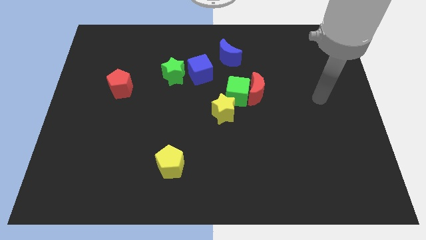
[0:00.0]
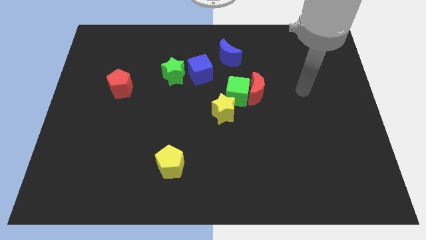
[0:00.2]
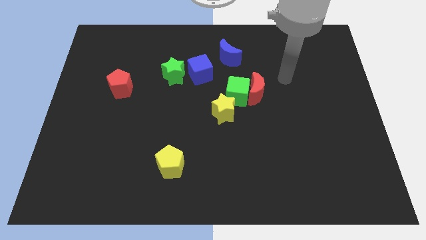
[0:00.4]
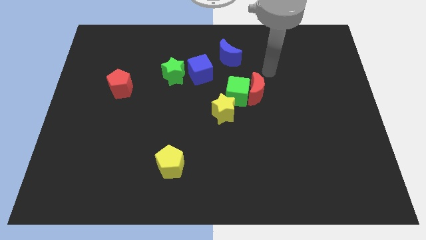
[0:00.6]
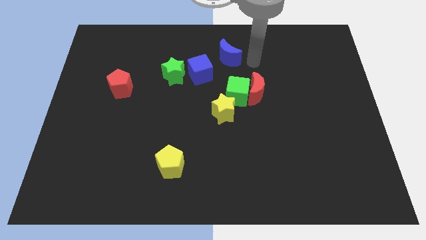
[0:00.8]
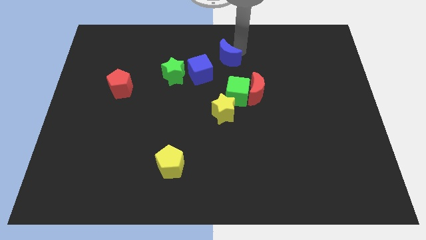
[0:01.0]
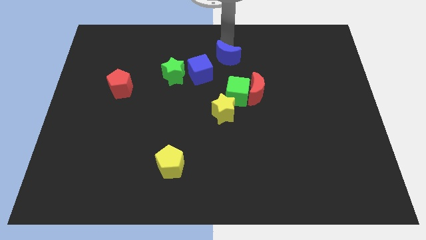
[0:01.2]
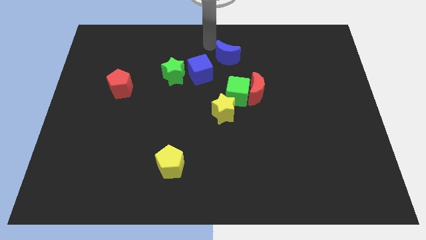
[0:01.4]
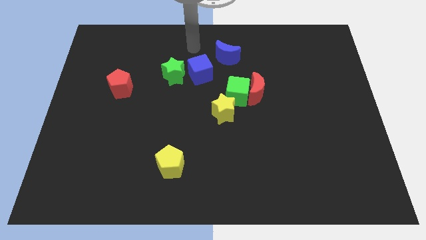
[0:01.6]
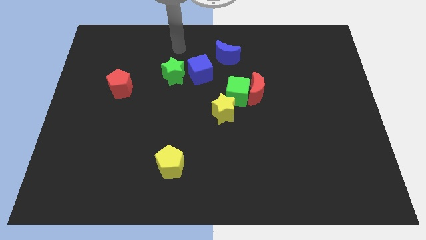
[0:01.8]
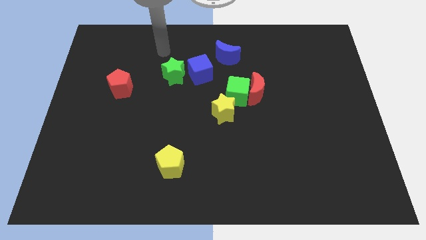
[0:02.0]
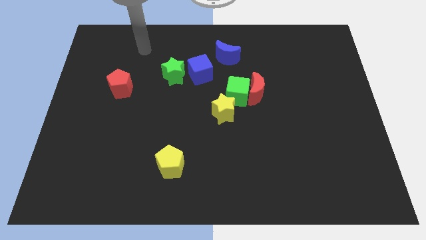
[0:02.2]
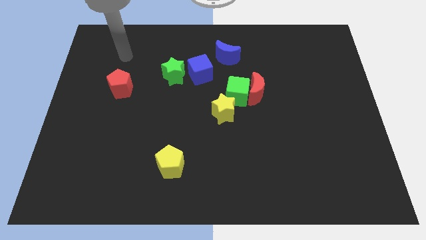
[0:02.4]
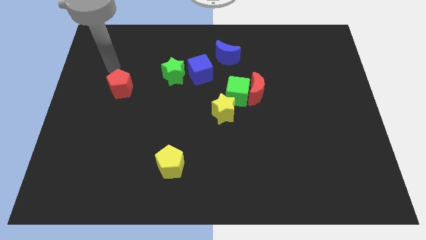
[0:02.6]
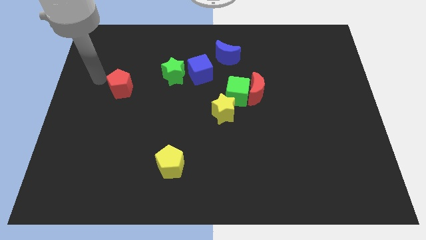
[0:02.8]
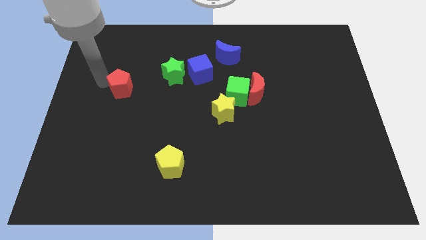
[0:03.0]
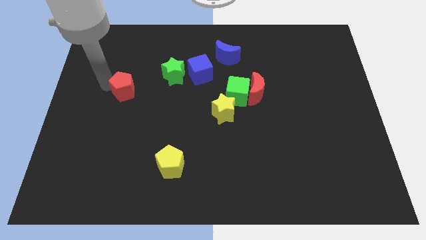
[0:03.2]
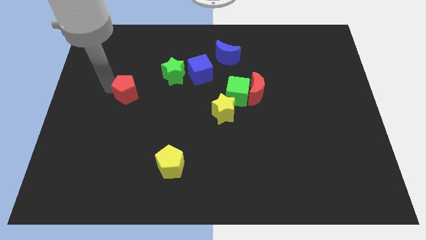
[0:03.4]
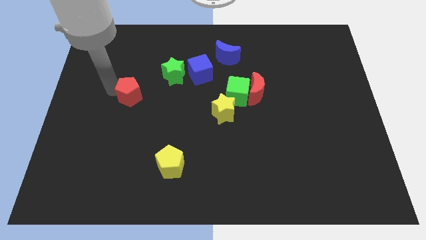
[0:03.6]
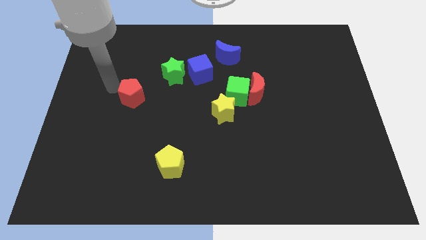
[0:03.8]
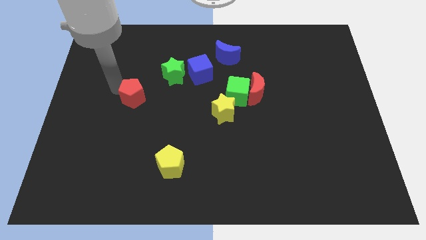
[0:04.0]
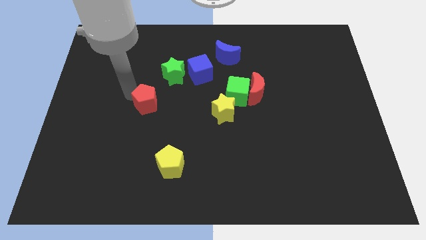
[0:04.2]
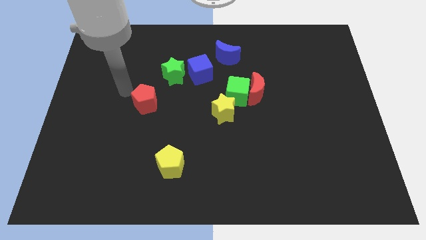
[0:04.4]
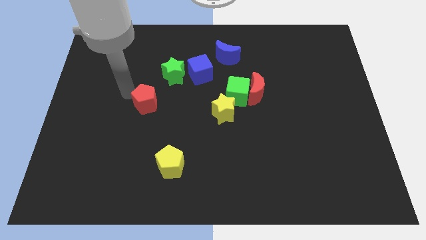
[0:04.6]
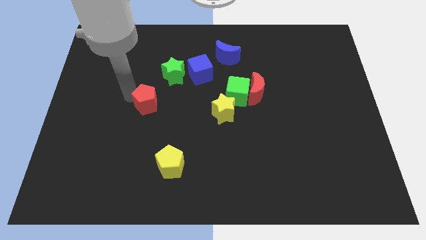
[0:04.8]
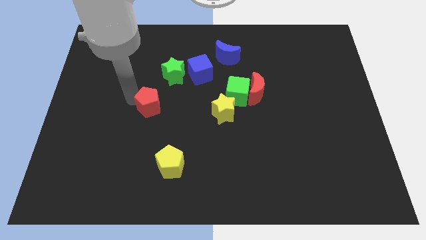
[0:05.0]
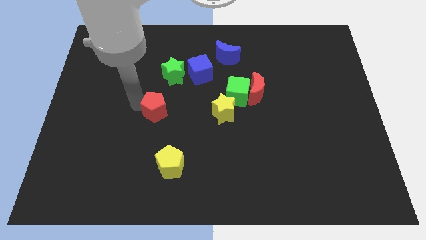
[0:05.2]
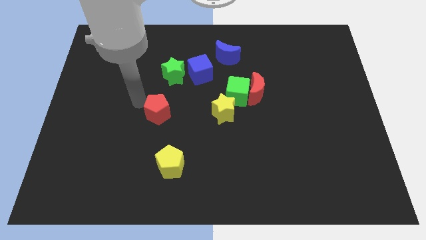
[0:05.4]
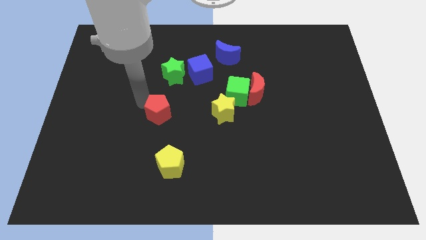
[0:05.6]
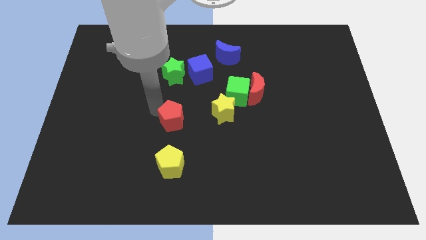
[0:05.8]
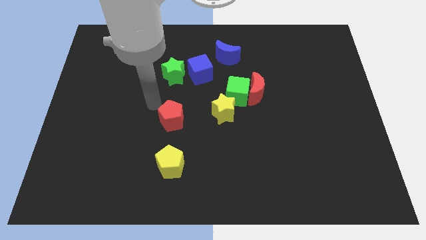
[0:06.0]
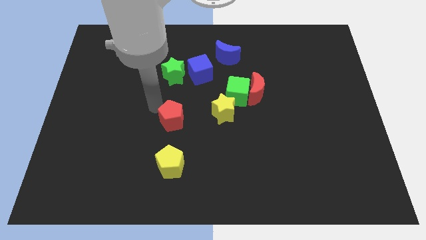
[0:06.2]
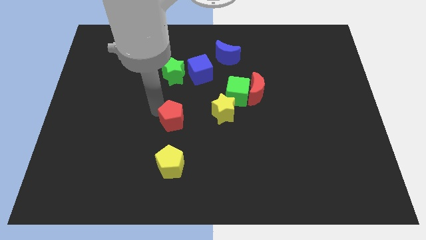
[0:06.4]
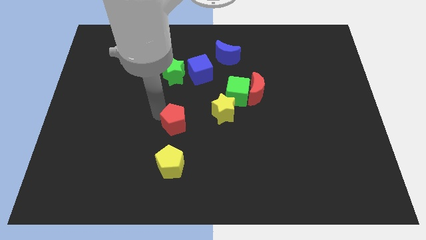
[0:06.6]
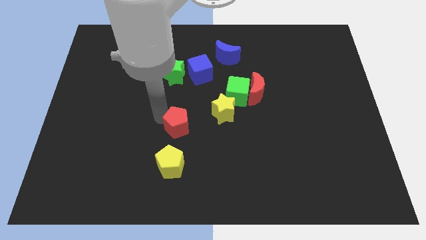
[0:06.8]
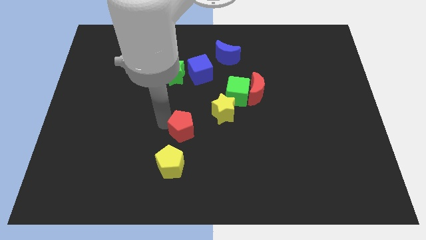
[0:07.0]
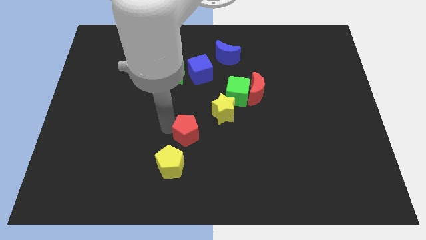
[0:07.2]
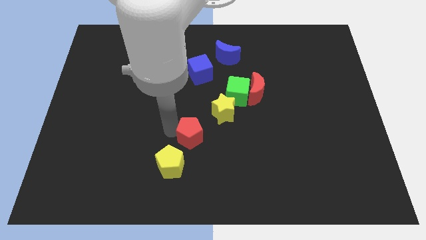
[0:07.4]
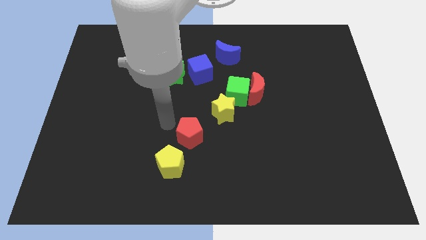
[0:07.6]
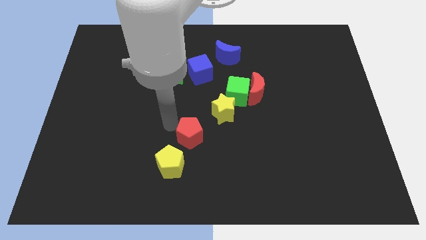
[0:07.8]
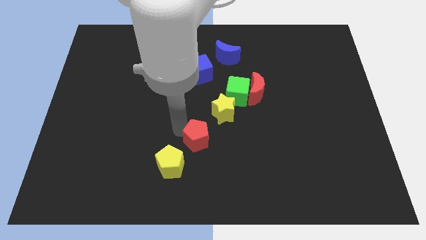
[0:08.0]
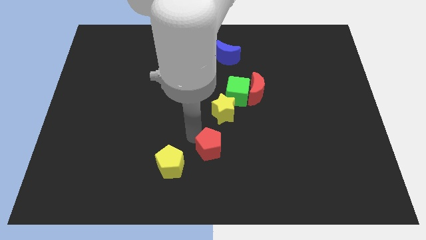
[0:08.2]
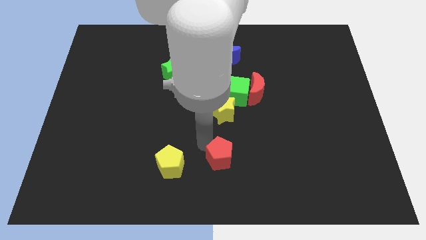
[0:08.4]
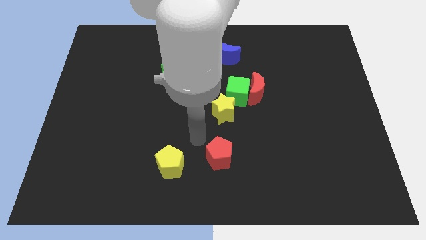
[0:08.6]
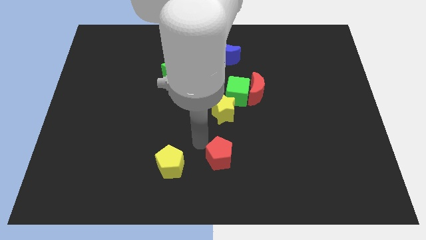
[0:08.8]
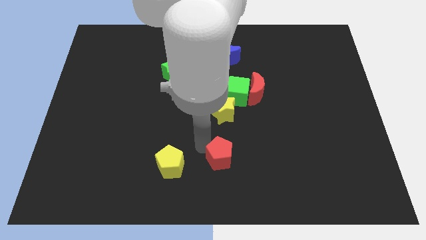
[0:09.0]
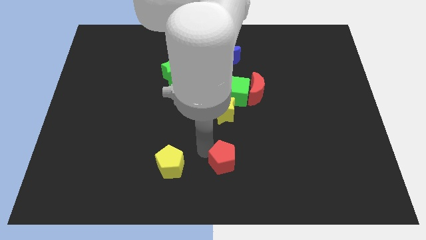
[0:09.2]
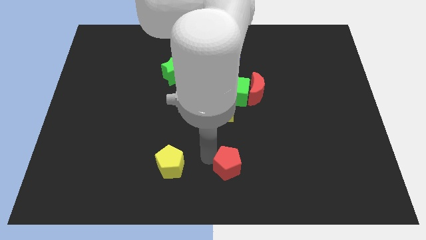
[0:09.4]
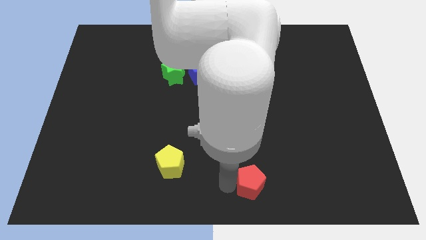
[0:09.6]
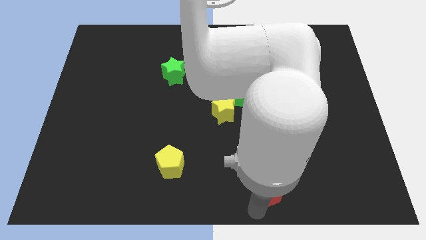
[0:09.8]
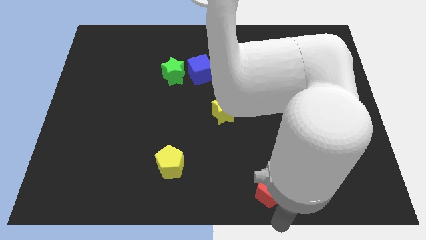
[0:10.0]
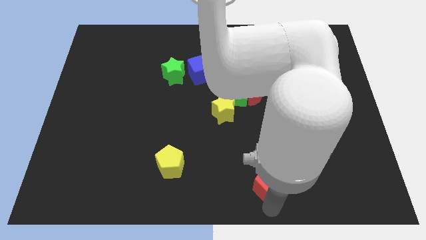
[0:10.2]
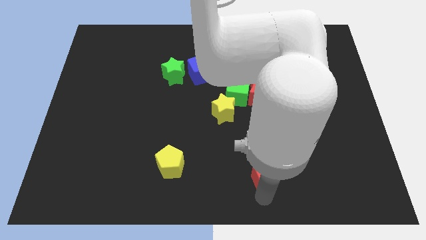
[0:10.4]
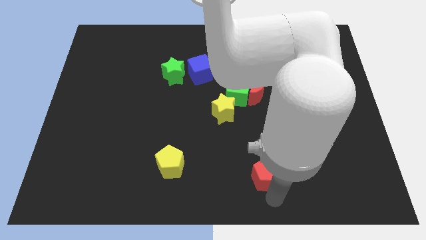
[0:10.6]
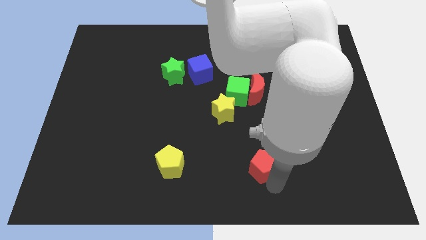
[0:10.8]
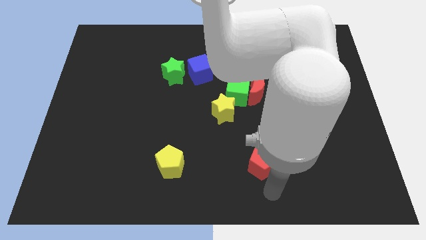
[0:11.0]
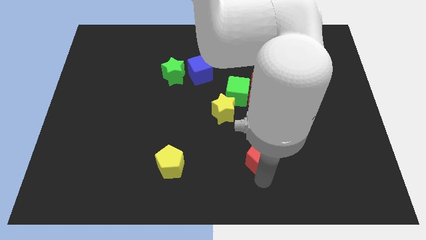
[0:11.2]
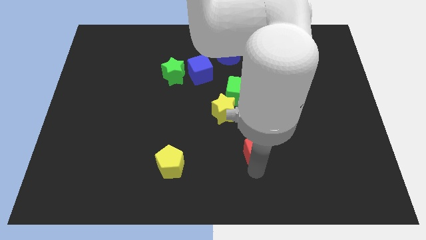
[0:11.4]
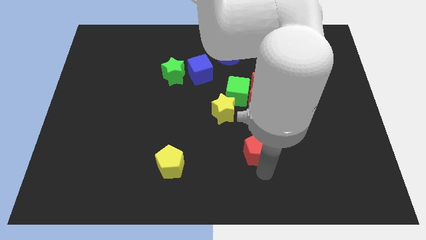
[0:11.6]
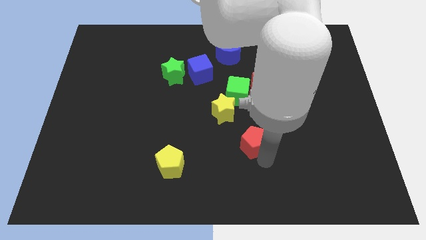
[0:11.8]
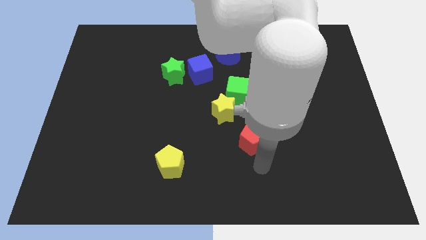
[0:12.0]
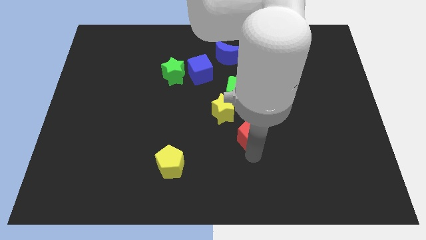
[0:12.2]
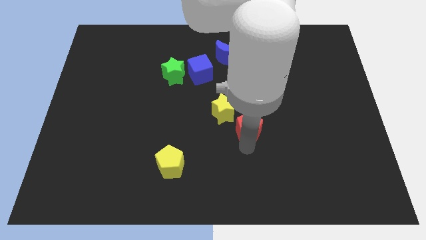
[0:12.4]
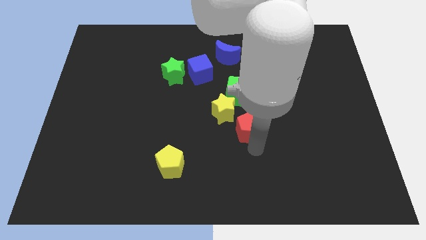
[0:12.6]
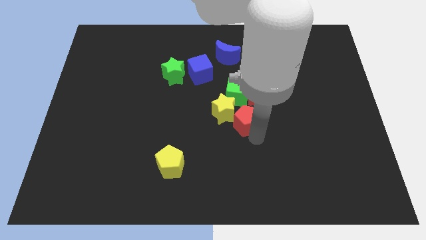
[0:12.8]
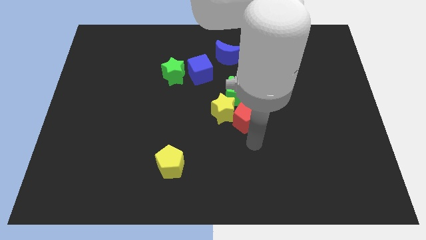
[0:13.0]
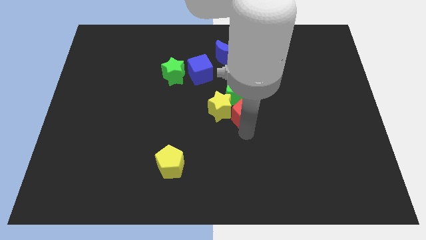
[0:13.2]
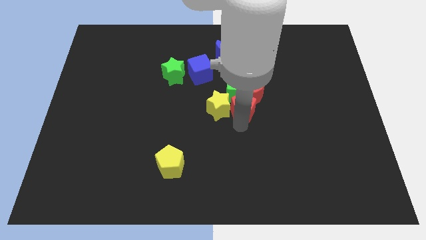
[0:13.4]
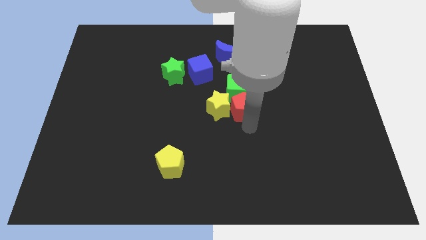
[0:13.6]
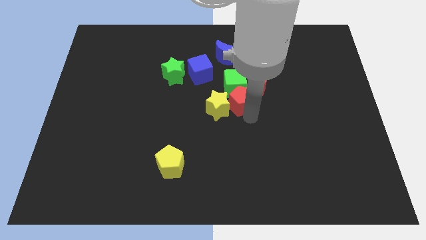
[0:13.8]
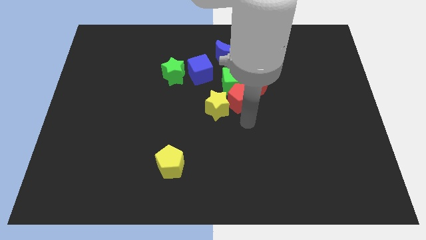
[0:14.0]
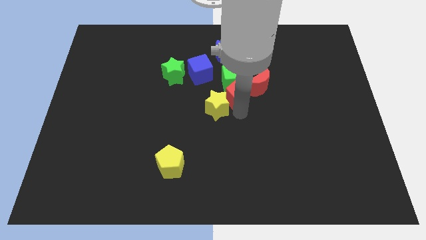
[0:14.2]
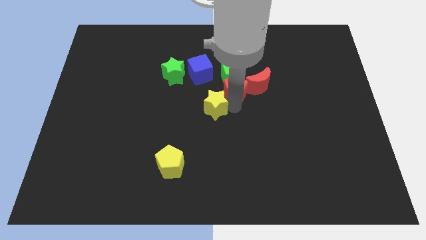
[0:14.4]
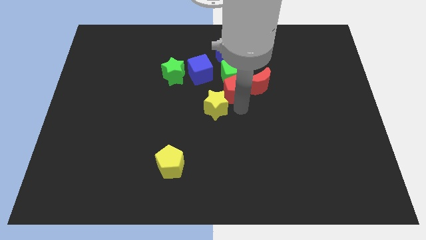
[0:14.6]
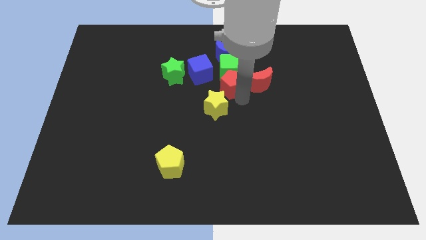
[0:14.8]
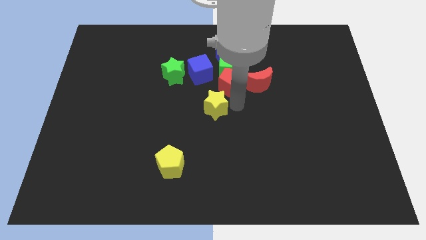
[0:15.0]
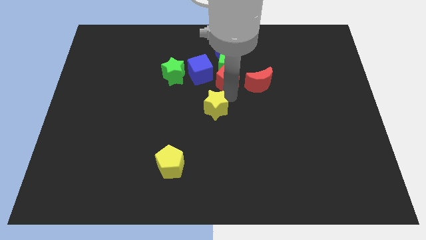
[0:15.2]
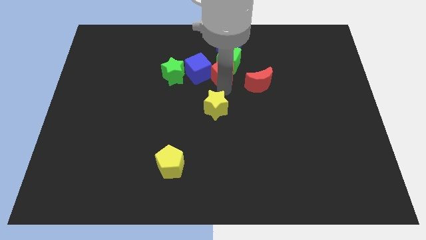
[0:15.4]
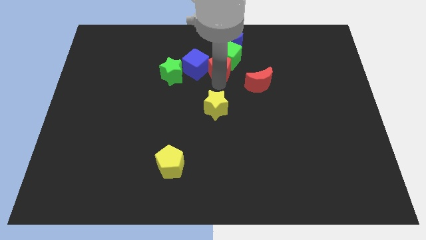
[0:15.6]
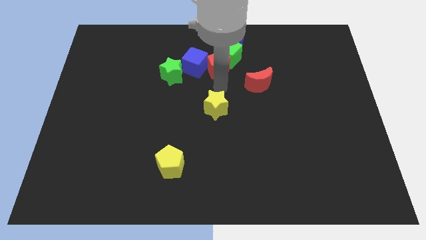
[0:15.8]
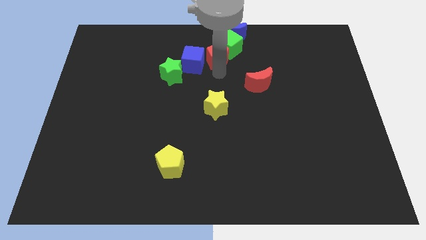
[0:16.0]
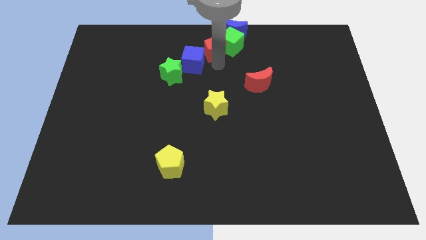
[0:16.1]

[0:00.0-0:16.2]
put the red pentagon to the towards your base
